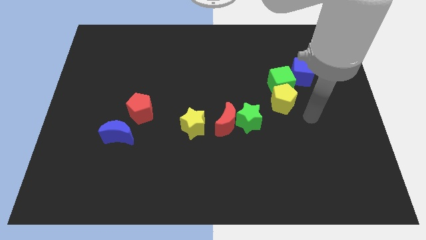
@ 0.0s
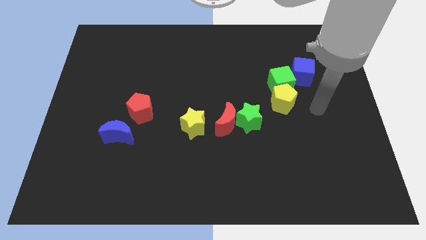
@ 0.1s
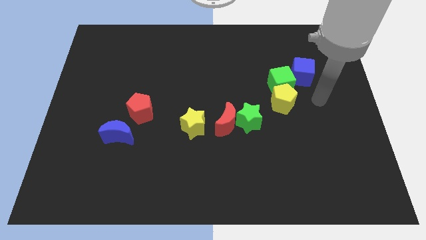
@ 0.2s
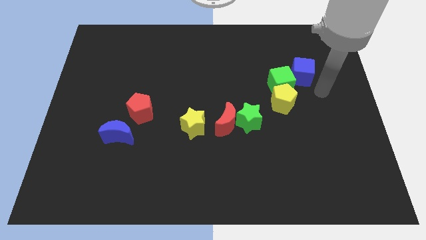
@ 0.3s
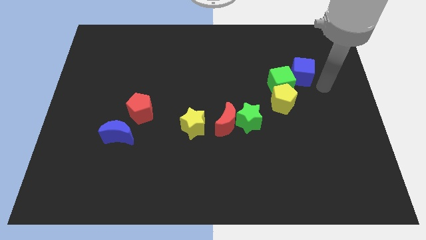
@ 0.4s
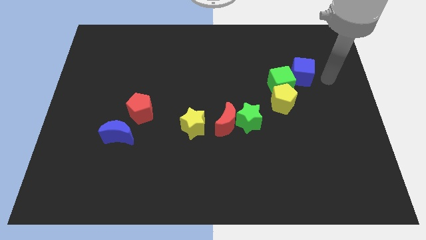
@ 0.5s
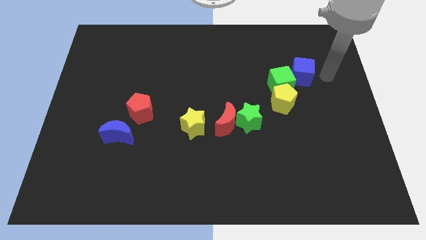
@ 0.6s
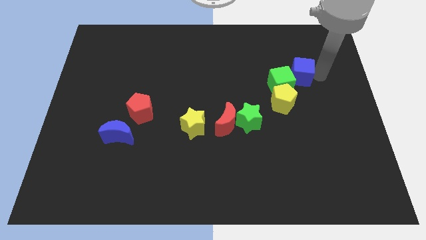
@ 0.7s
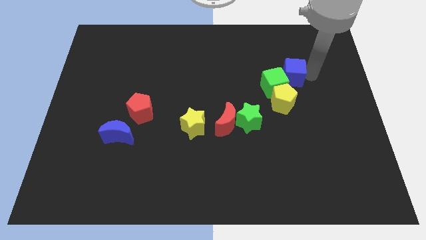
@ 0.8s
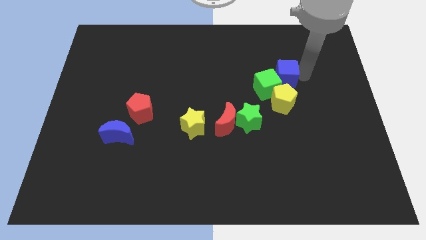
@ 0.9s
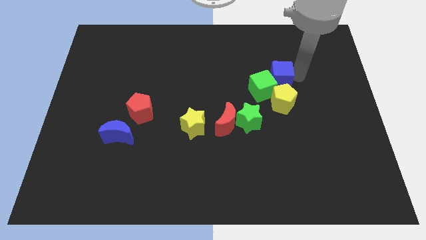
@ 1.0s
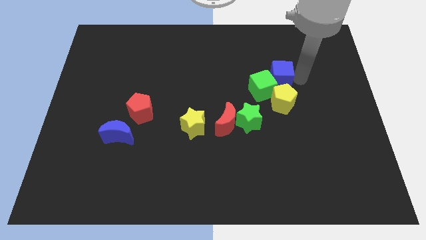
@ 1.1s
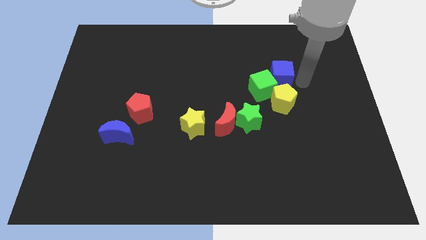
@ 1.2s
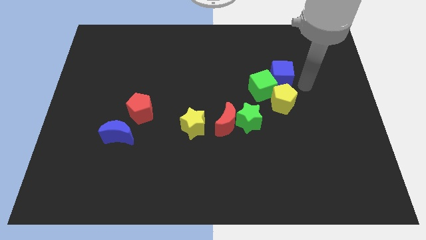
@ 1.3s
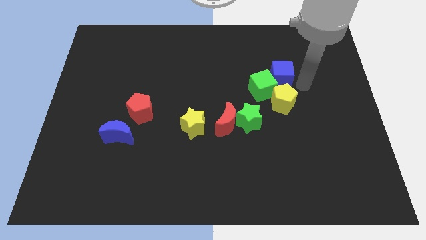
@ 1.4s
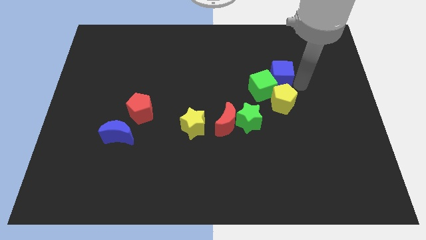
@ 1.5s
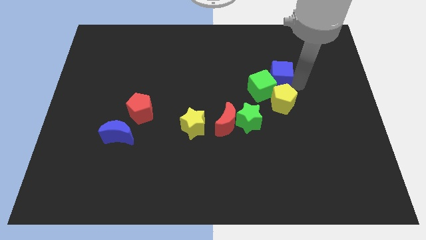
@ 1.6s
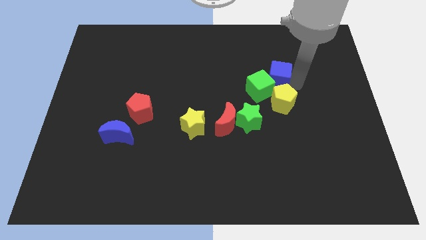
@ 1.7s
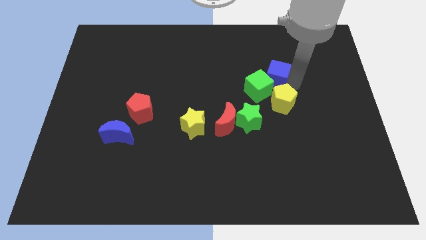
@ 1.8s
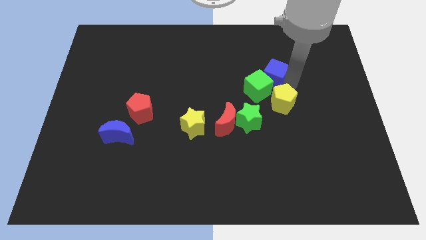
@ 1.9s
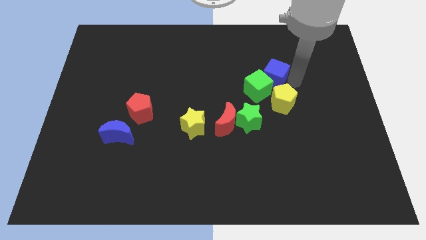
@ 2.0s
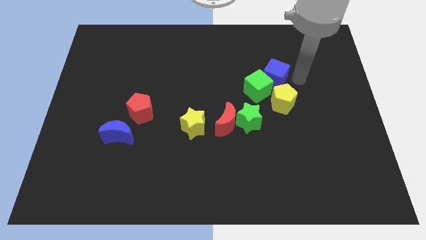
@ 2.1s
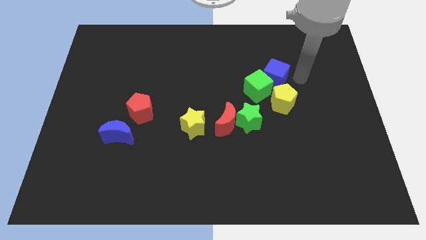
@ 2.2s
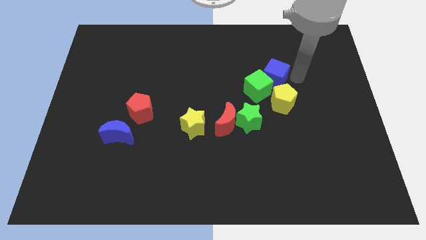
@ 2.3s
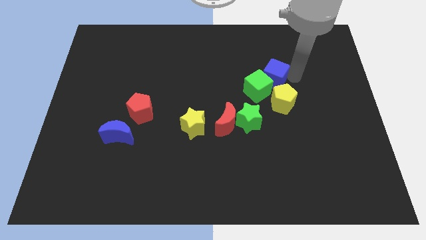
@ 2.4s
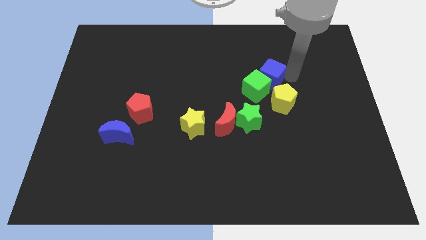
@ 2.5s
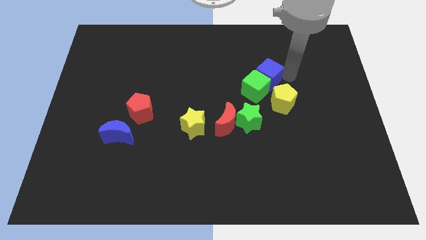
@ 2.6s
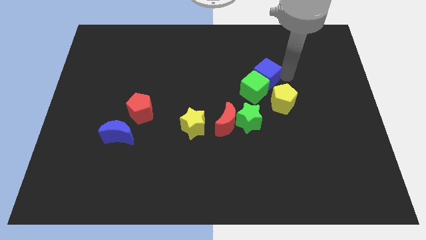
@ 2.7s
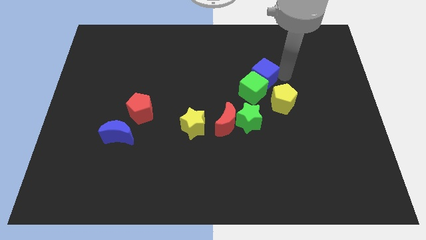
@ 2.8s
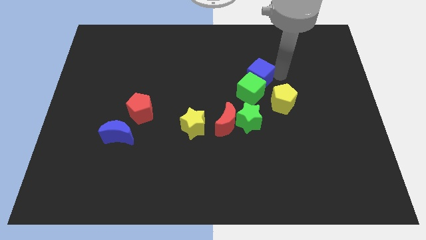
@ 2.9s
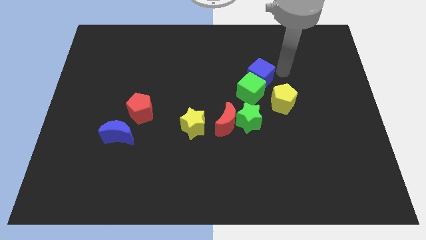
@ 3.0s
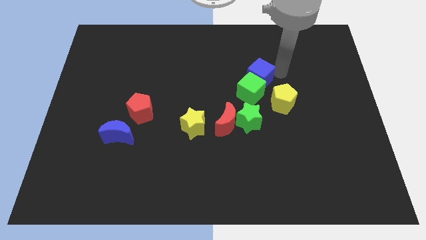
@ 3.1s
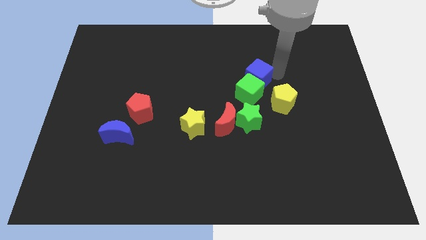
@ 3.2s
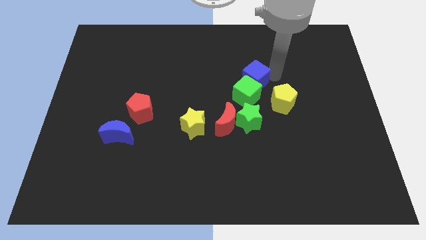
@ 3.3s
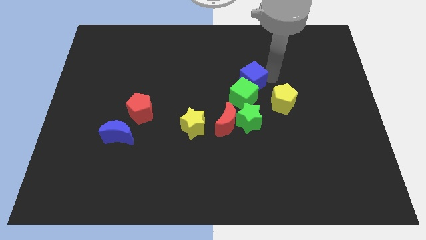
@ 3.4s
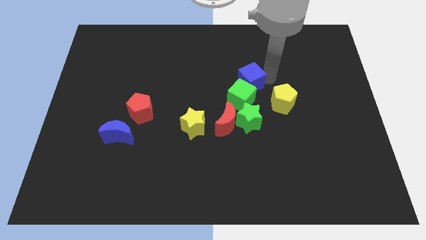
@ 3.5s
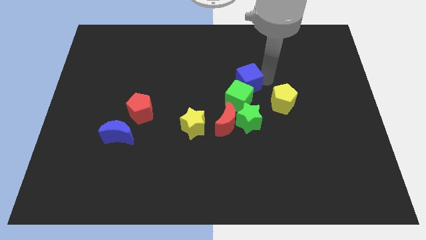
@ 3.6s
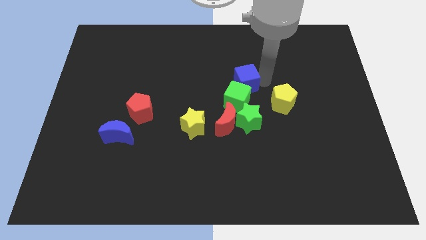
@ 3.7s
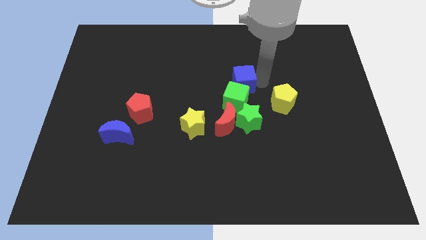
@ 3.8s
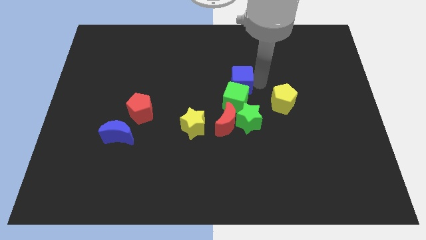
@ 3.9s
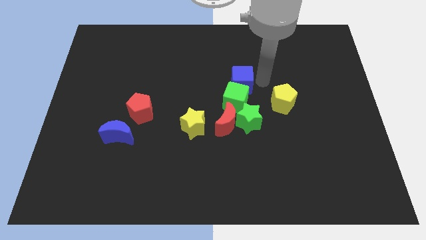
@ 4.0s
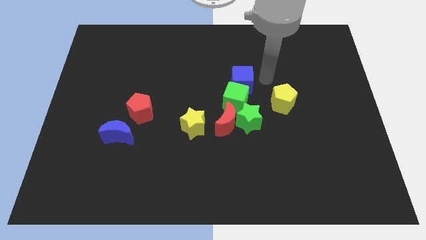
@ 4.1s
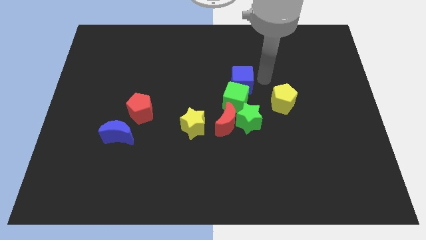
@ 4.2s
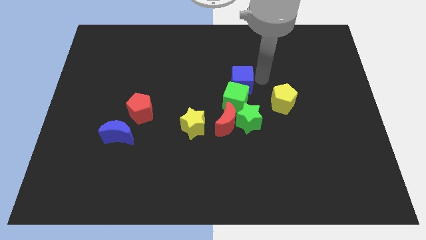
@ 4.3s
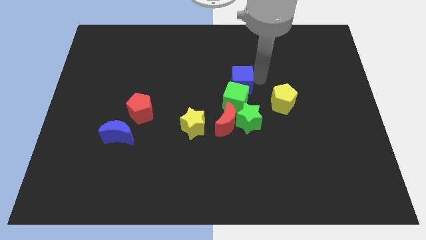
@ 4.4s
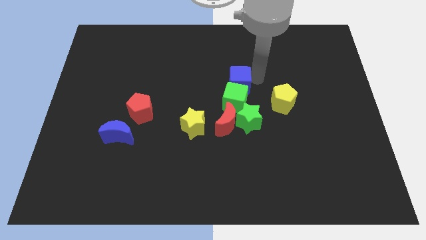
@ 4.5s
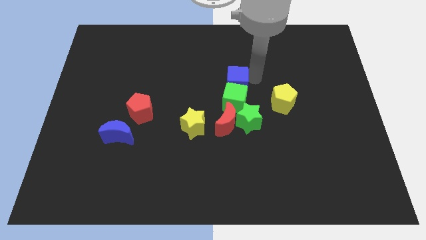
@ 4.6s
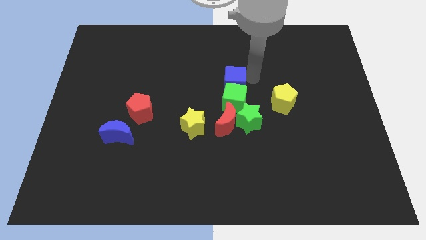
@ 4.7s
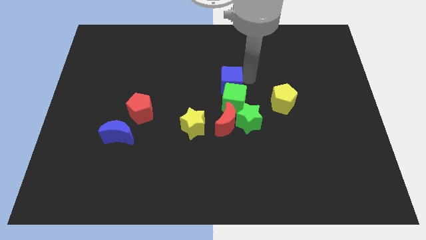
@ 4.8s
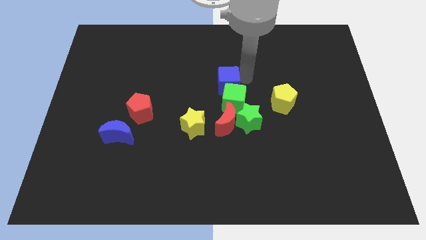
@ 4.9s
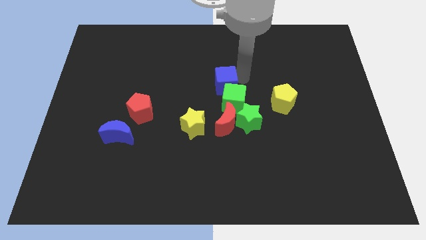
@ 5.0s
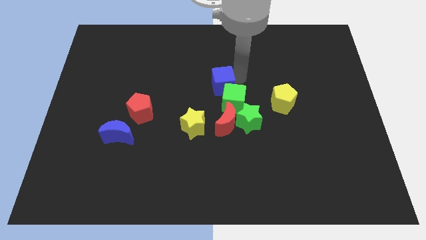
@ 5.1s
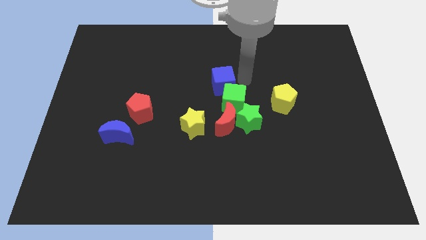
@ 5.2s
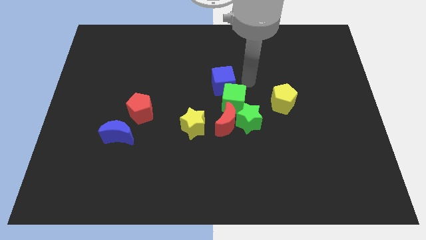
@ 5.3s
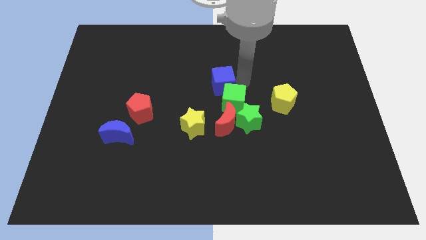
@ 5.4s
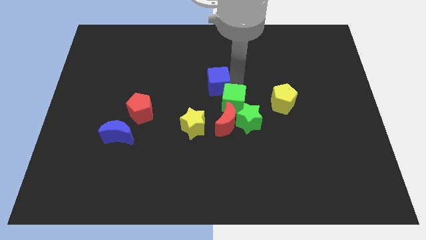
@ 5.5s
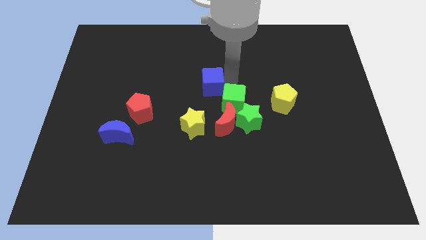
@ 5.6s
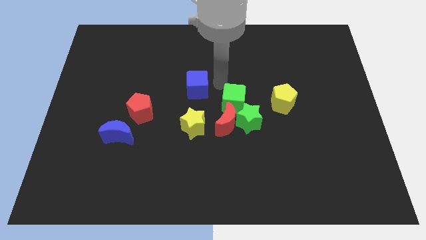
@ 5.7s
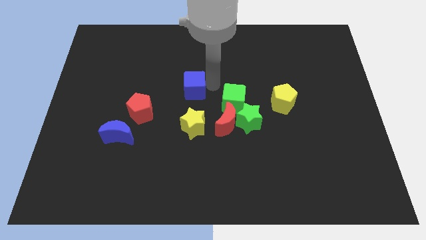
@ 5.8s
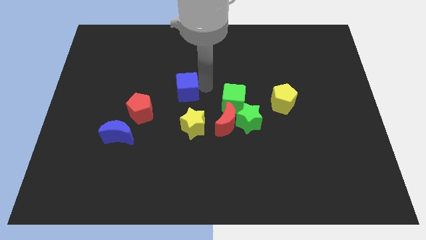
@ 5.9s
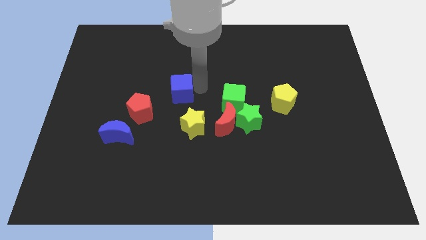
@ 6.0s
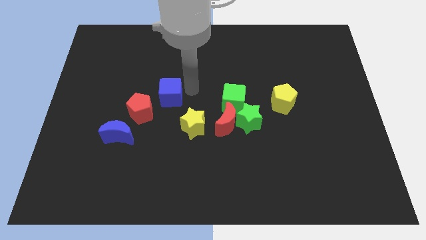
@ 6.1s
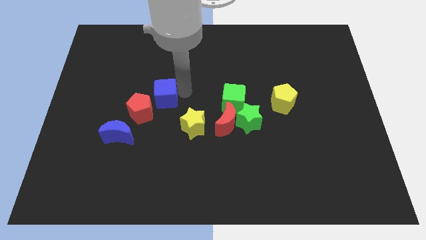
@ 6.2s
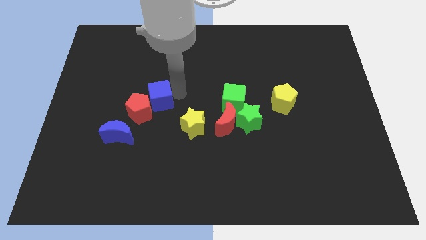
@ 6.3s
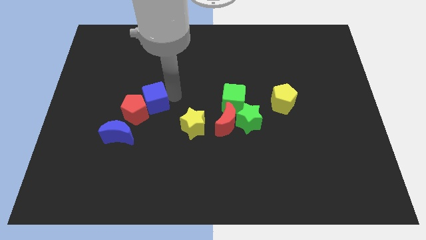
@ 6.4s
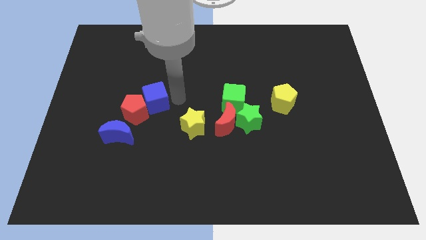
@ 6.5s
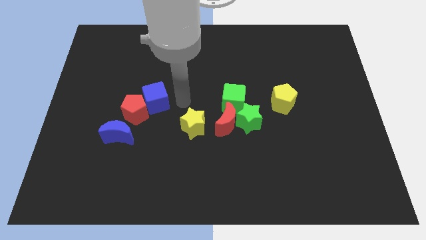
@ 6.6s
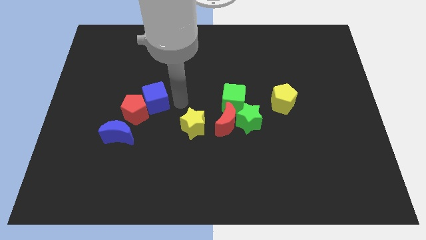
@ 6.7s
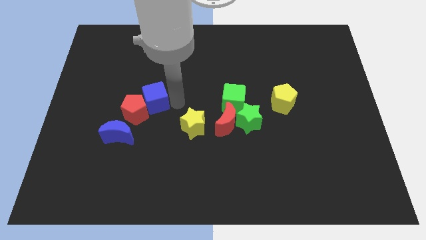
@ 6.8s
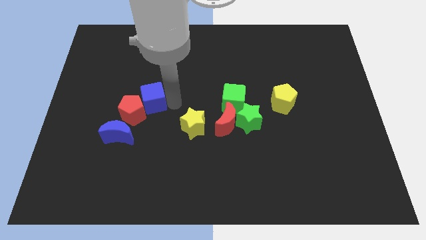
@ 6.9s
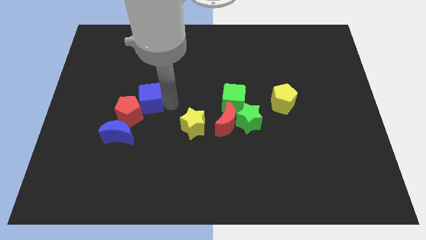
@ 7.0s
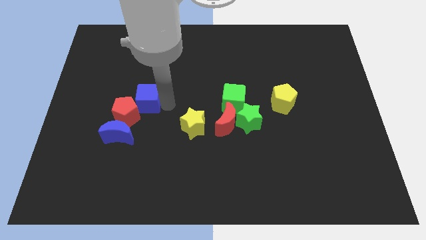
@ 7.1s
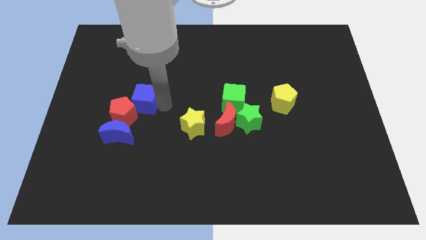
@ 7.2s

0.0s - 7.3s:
slide the blue cube above the blue moon
